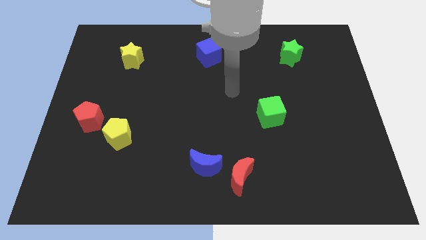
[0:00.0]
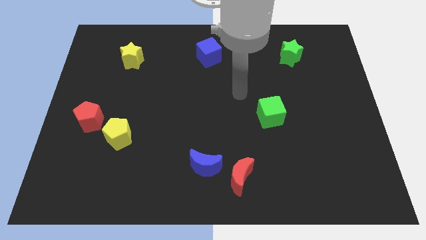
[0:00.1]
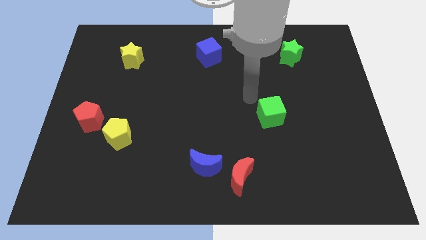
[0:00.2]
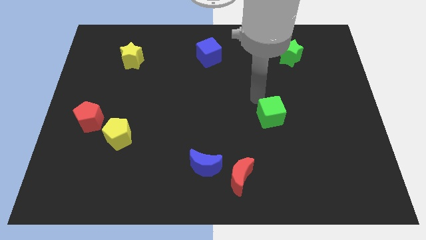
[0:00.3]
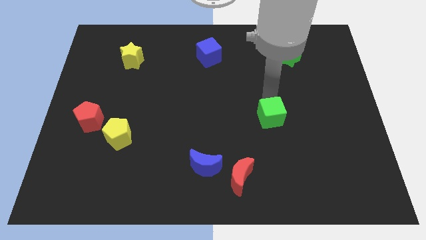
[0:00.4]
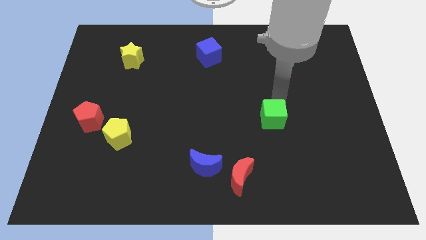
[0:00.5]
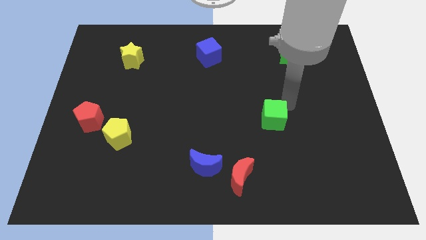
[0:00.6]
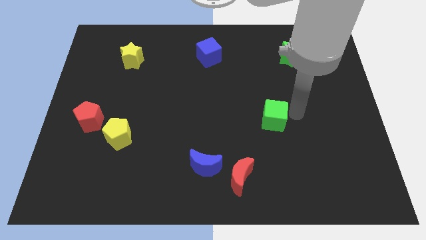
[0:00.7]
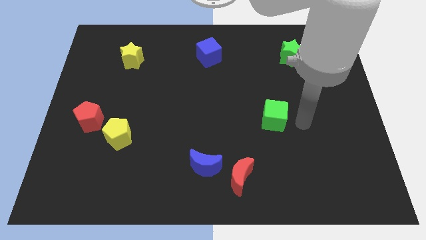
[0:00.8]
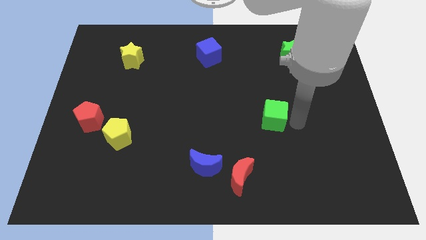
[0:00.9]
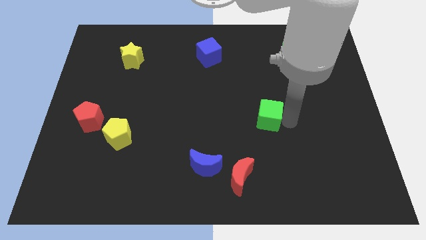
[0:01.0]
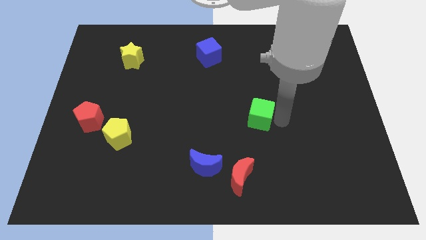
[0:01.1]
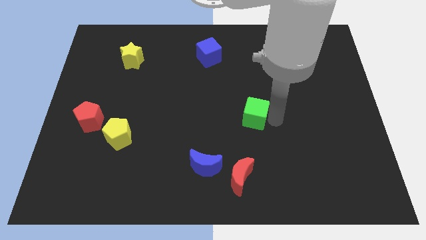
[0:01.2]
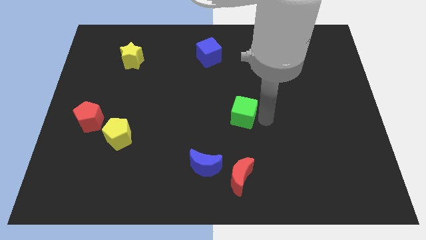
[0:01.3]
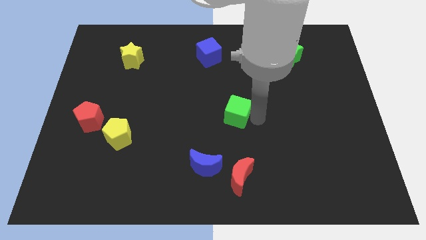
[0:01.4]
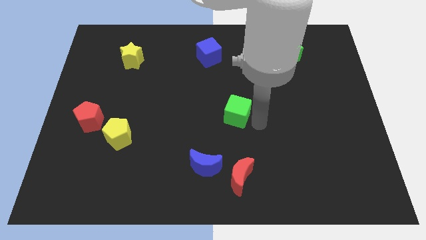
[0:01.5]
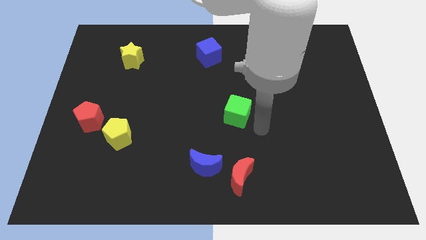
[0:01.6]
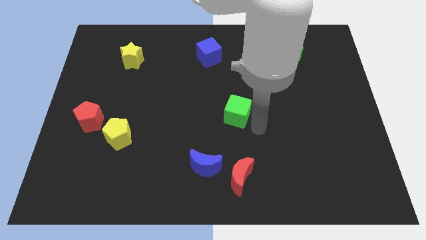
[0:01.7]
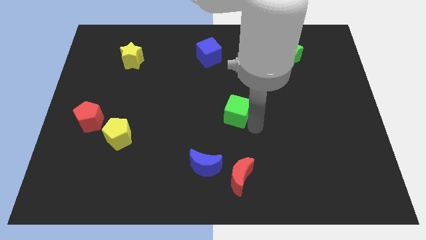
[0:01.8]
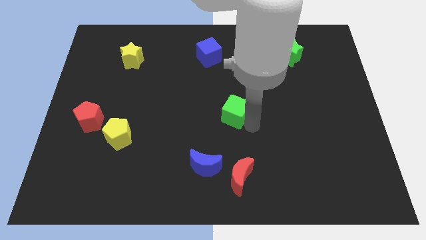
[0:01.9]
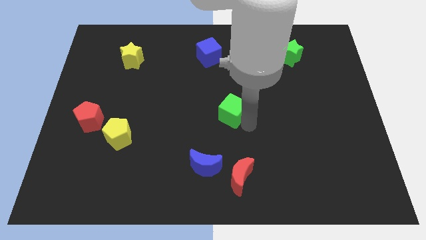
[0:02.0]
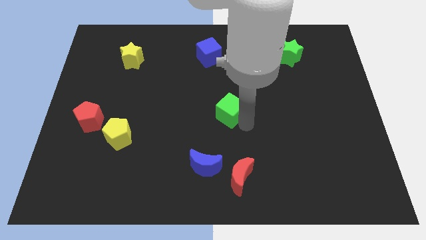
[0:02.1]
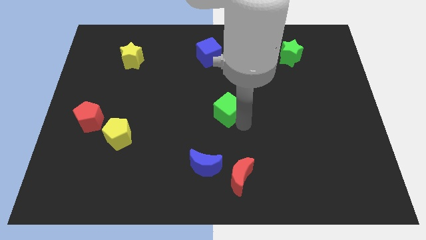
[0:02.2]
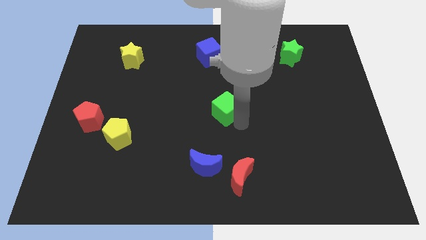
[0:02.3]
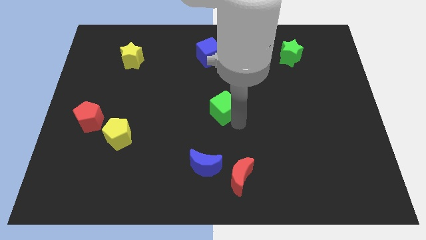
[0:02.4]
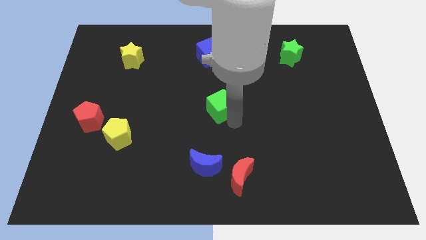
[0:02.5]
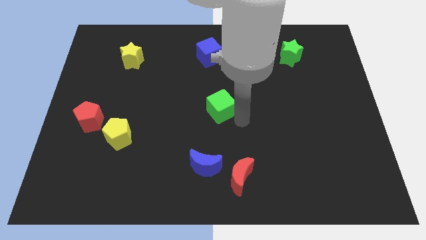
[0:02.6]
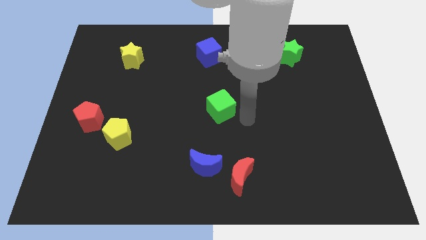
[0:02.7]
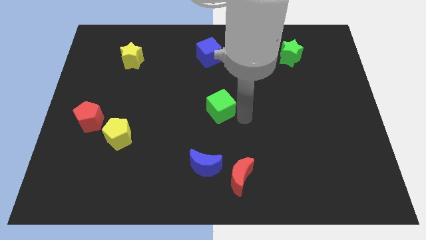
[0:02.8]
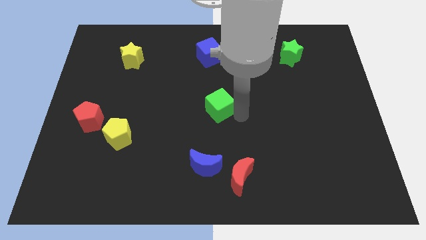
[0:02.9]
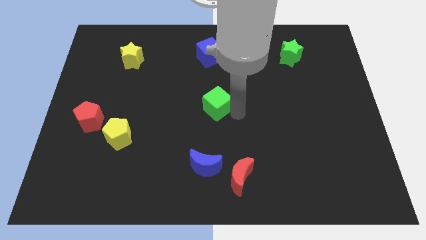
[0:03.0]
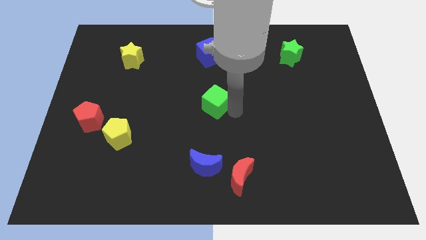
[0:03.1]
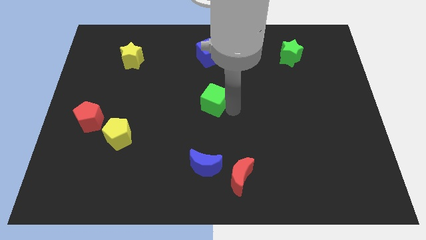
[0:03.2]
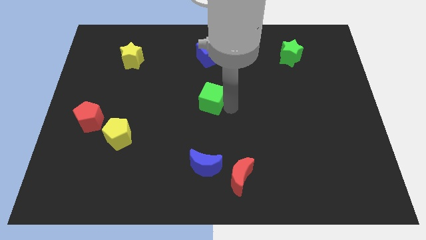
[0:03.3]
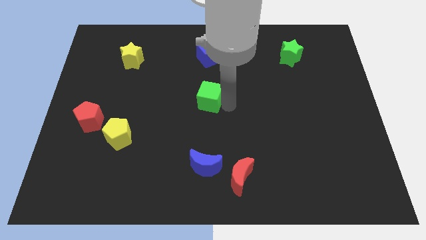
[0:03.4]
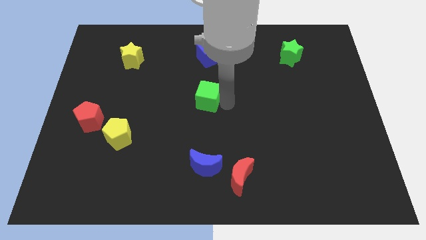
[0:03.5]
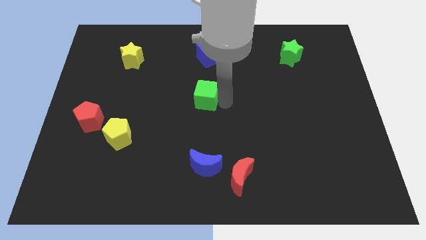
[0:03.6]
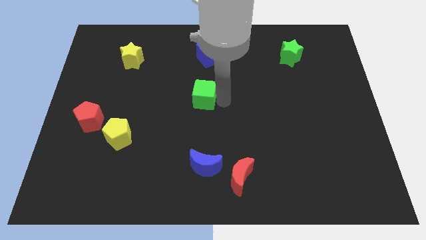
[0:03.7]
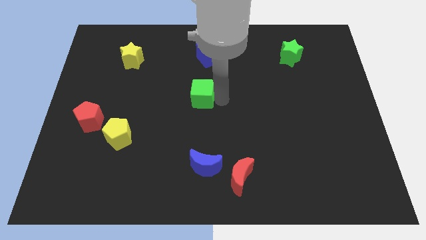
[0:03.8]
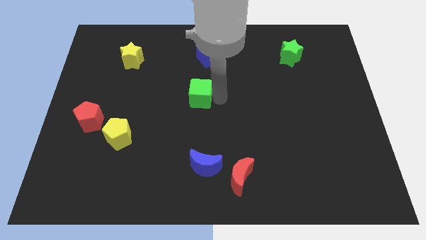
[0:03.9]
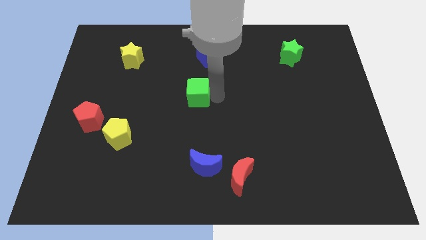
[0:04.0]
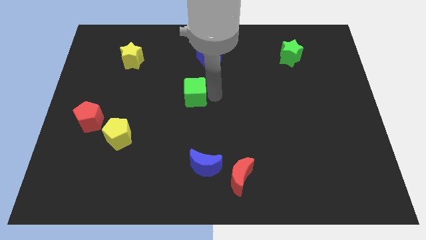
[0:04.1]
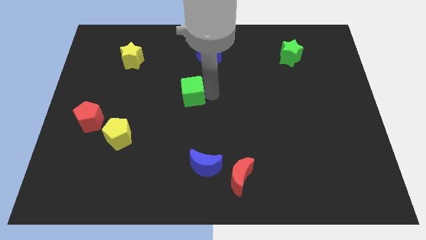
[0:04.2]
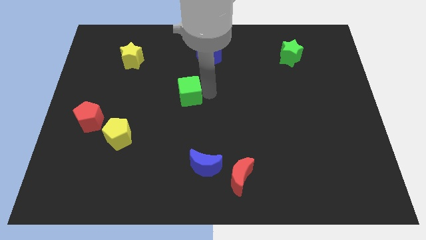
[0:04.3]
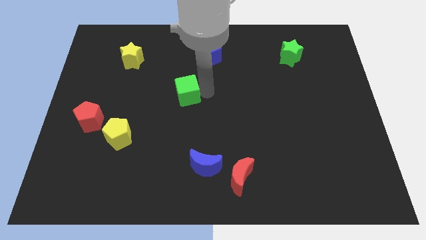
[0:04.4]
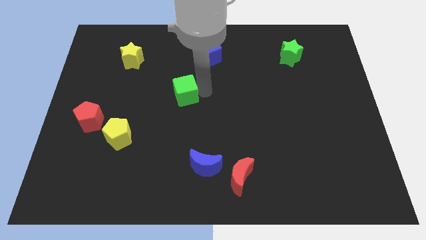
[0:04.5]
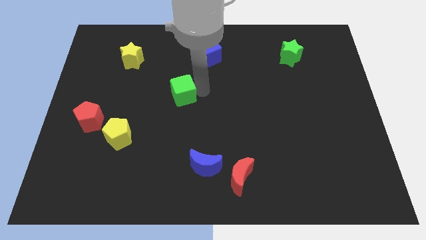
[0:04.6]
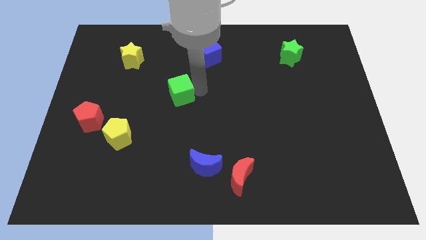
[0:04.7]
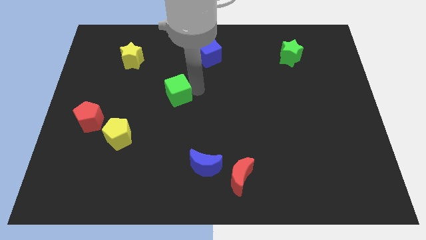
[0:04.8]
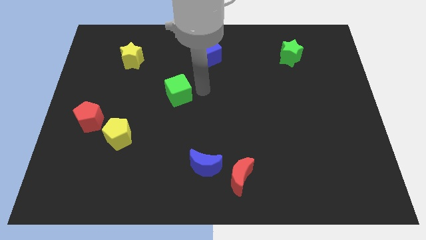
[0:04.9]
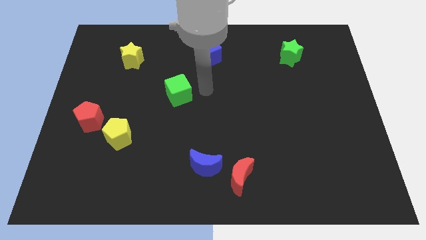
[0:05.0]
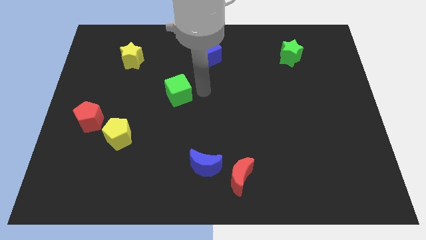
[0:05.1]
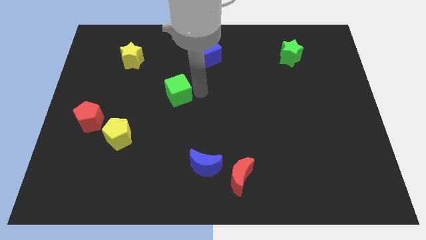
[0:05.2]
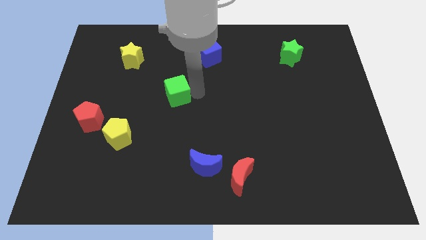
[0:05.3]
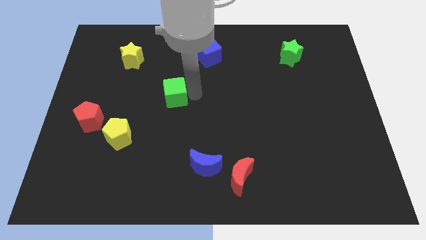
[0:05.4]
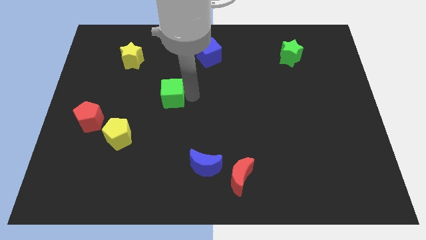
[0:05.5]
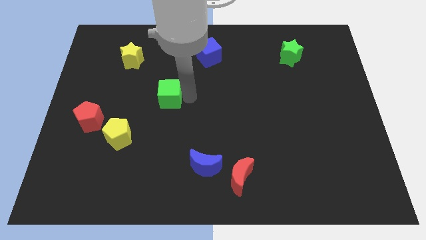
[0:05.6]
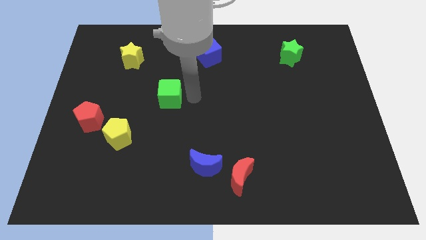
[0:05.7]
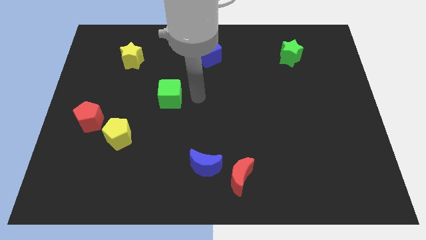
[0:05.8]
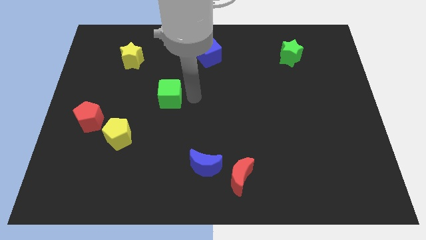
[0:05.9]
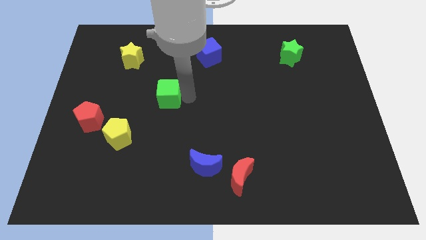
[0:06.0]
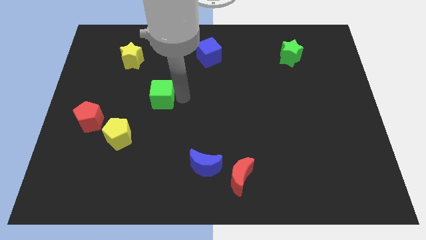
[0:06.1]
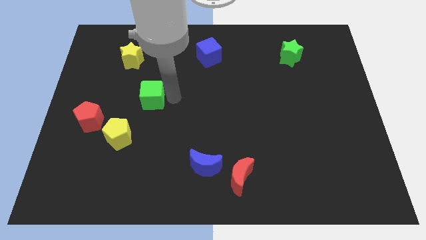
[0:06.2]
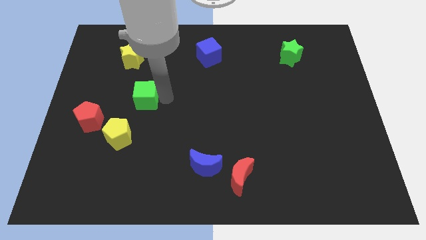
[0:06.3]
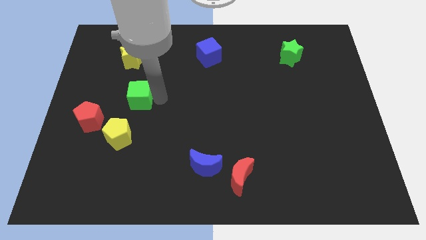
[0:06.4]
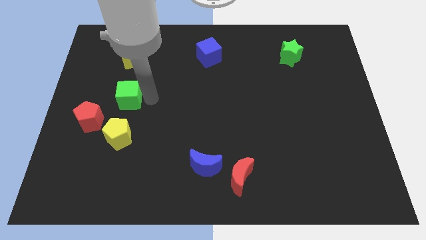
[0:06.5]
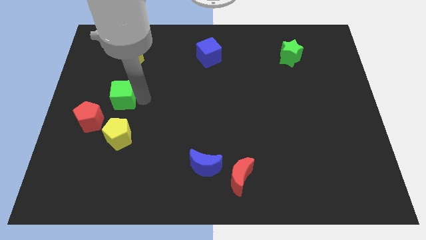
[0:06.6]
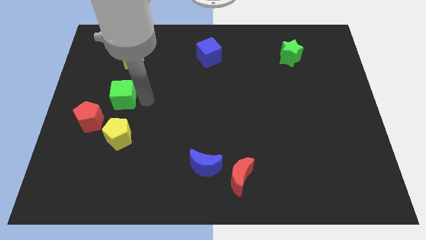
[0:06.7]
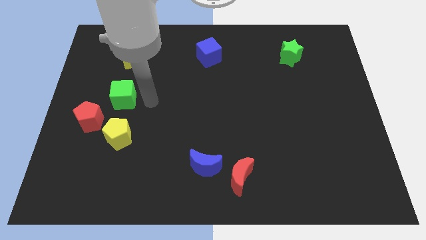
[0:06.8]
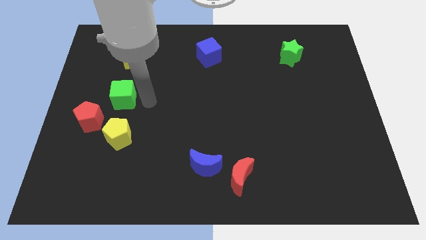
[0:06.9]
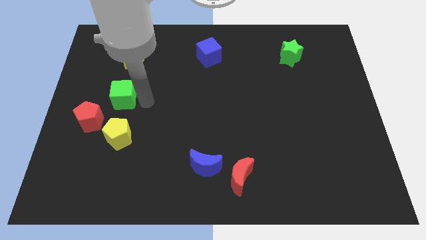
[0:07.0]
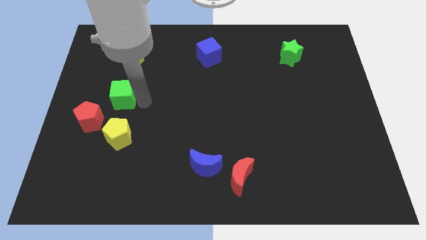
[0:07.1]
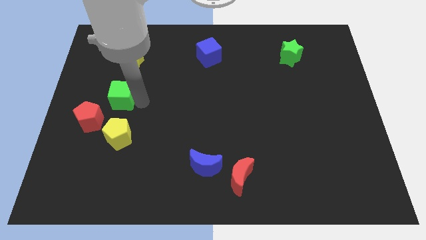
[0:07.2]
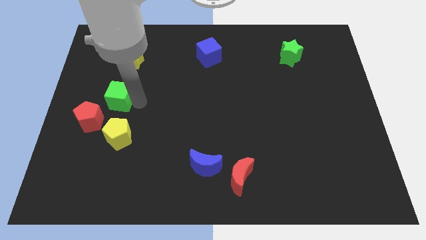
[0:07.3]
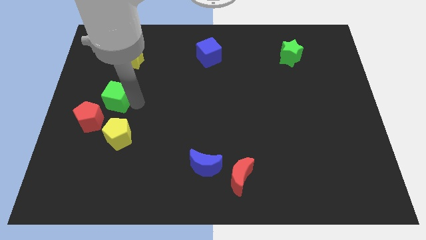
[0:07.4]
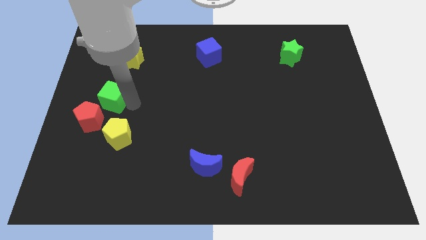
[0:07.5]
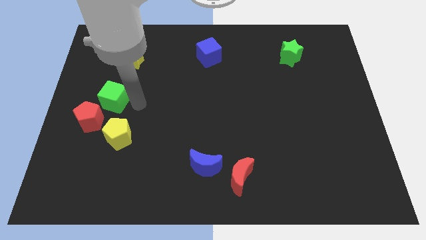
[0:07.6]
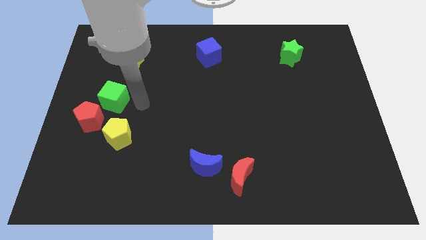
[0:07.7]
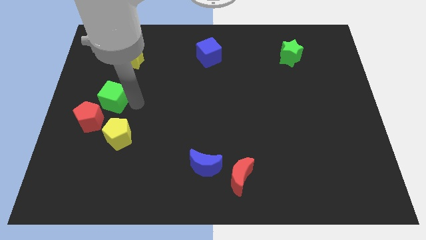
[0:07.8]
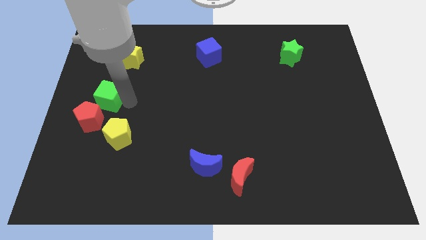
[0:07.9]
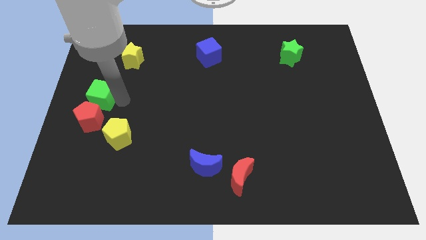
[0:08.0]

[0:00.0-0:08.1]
push the green cube to the left side of the board
